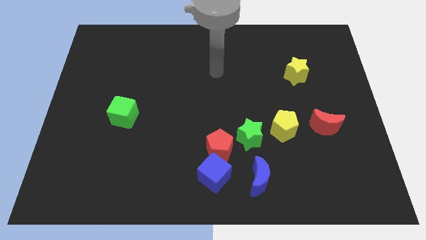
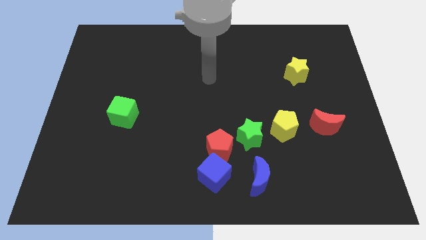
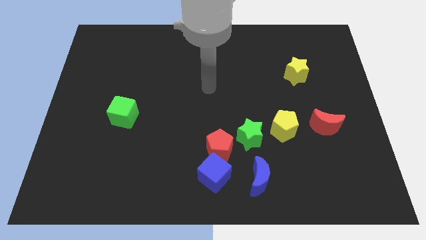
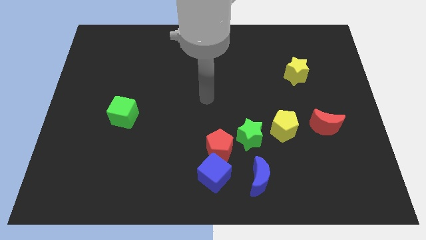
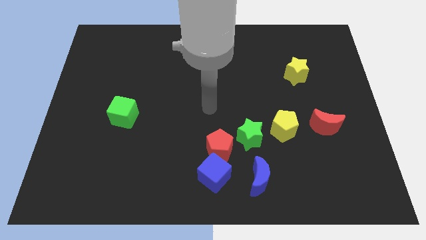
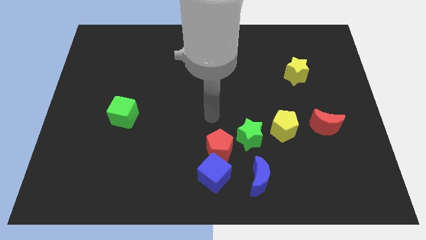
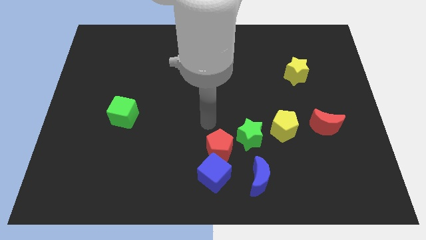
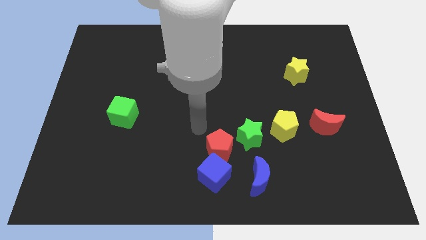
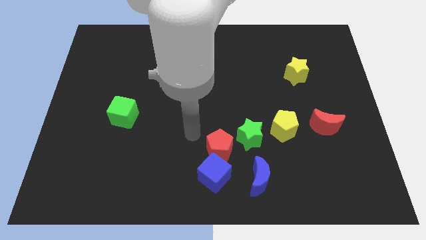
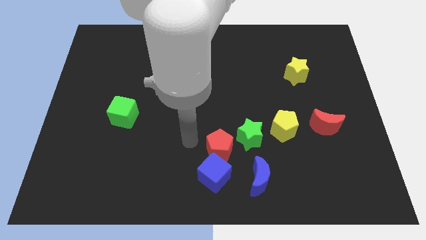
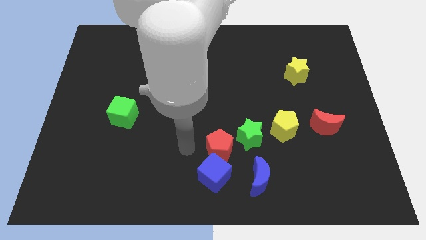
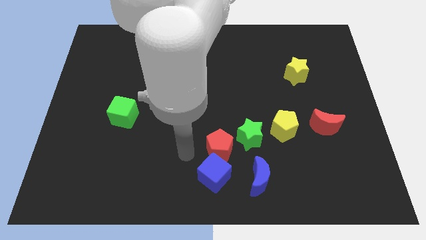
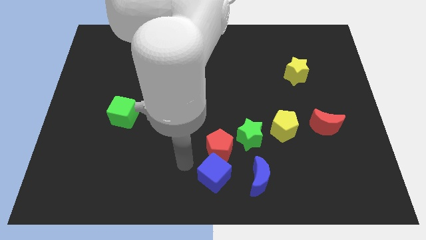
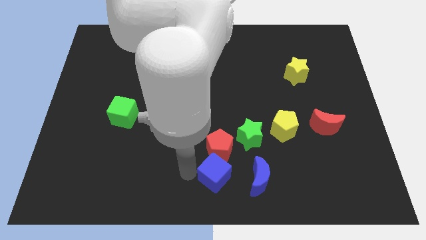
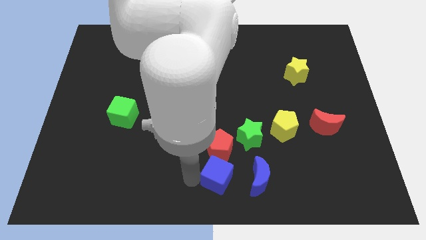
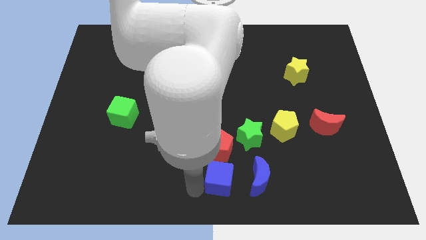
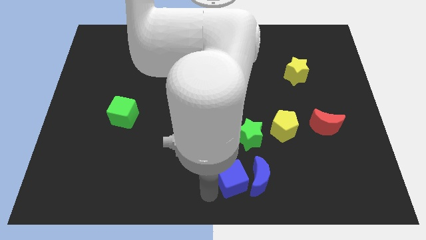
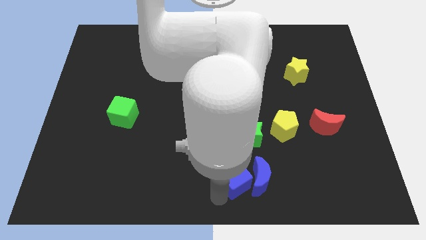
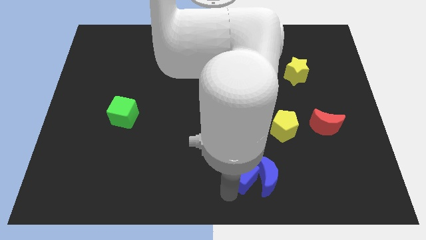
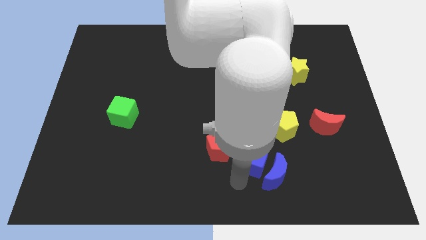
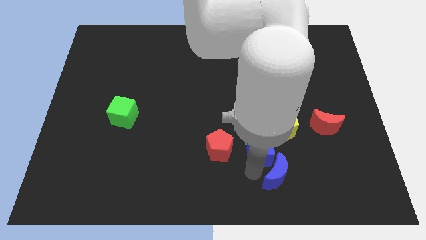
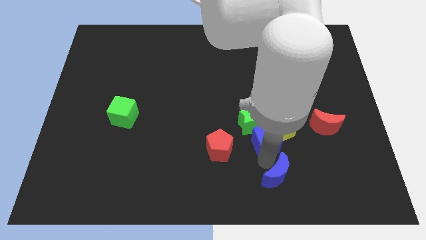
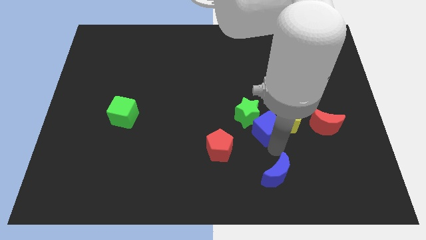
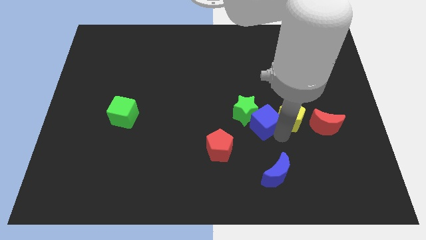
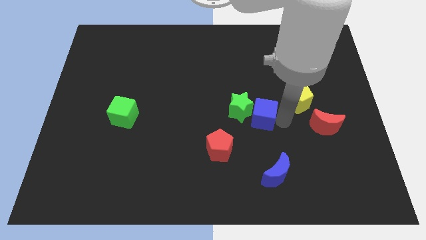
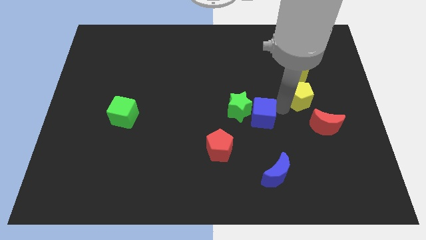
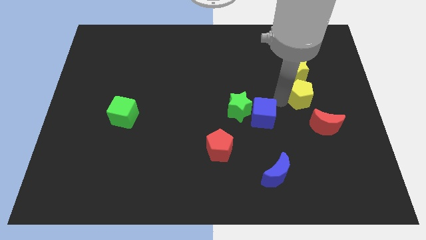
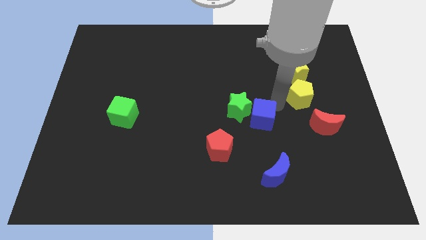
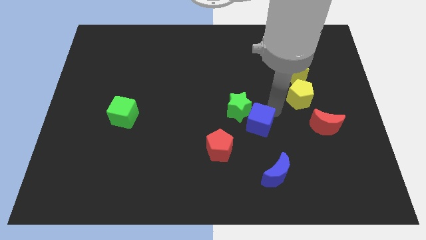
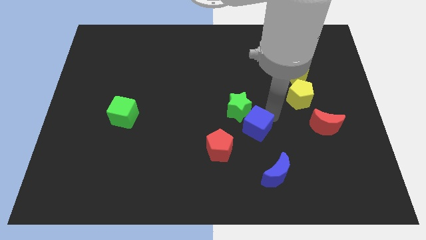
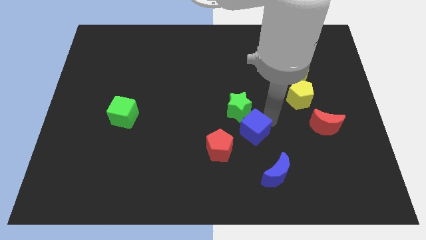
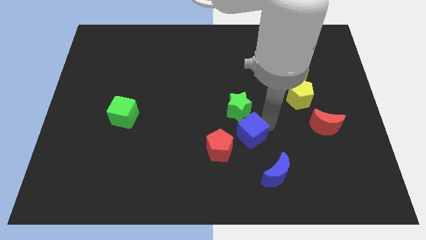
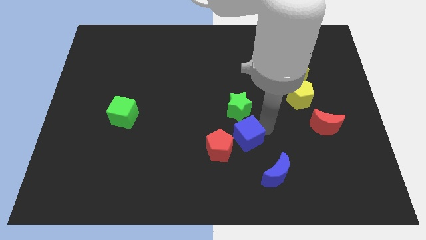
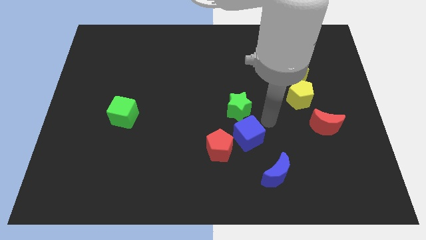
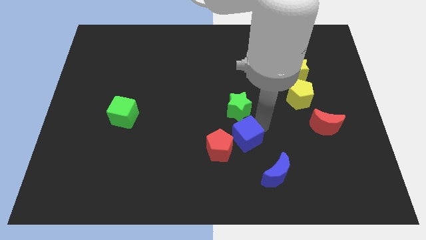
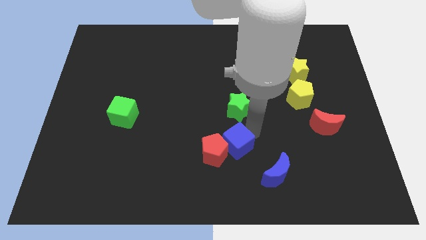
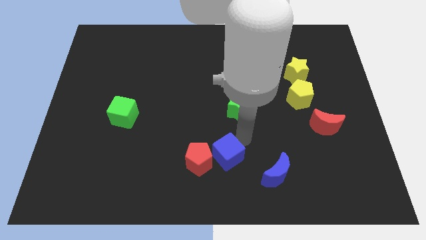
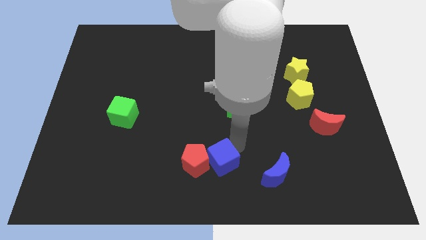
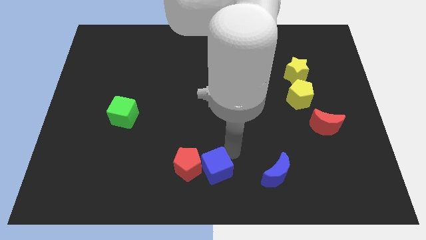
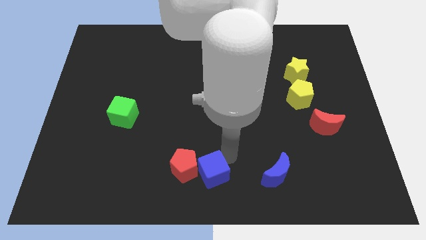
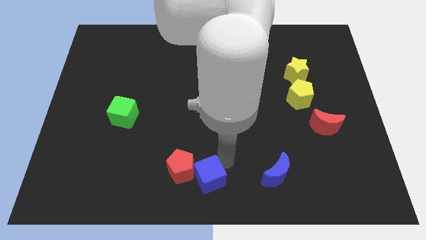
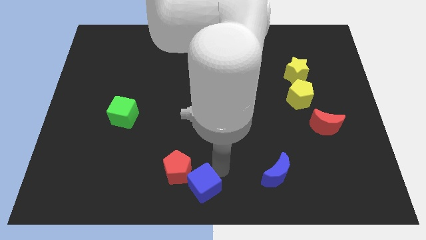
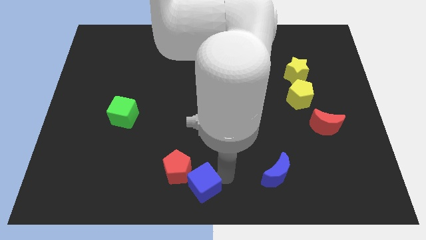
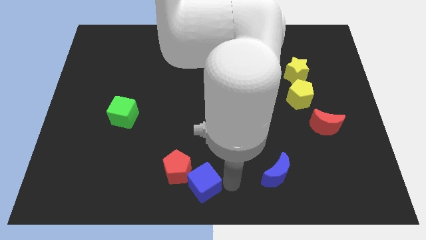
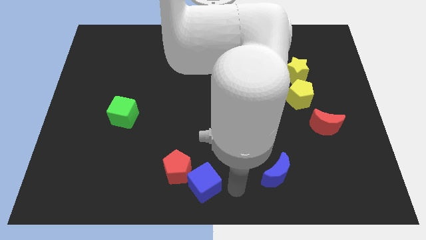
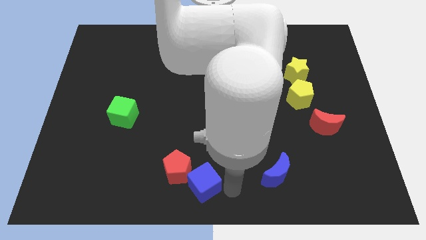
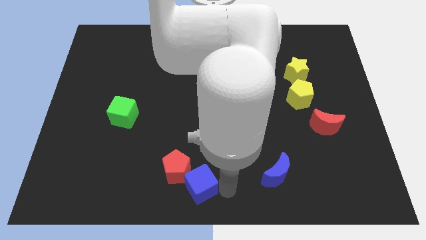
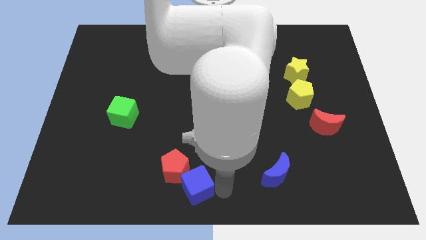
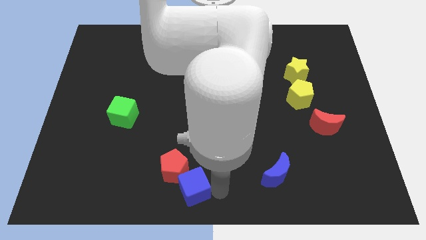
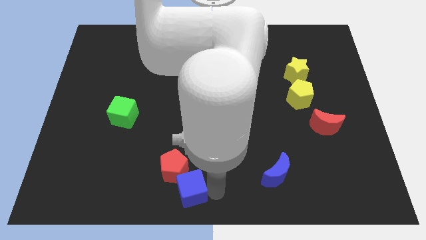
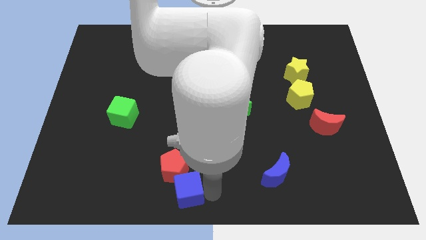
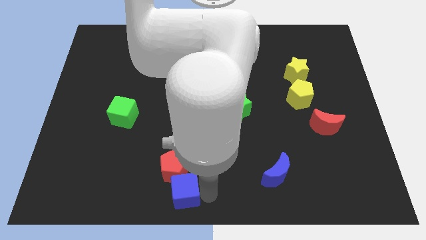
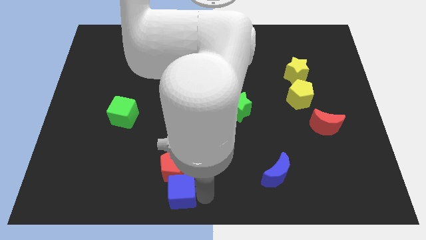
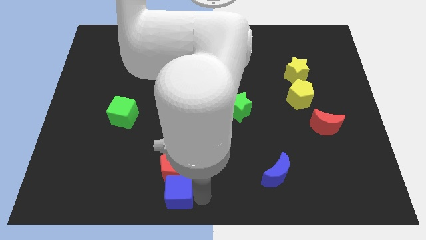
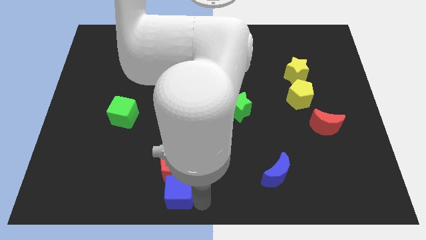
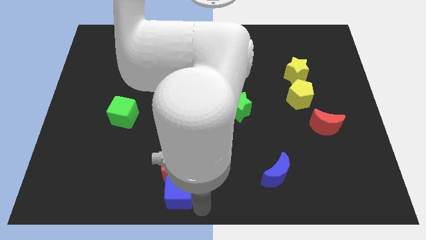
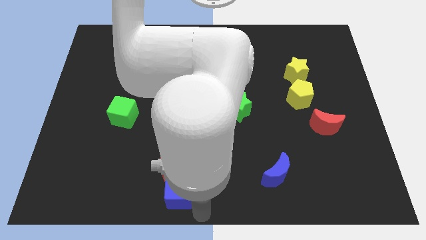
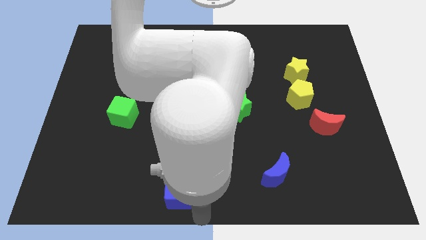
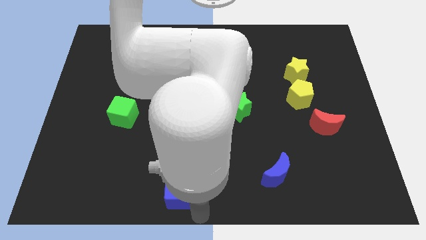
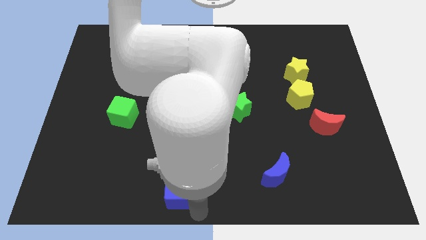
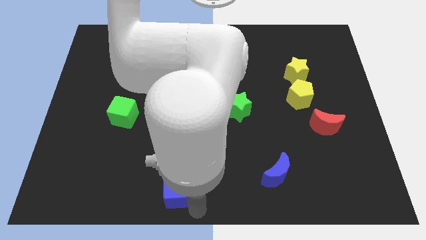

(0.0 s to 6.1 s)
slide the blue cube a little left

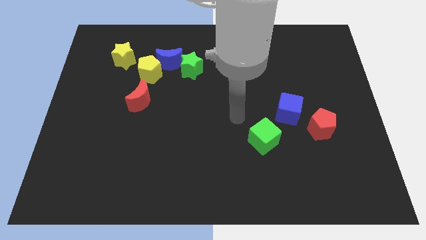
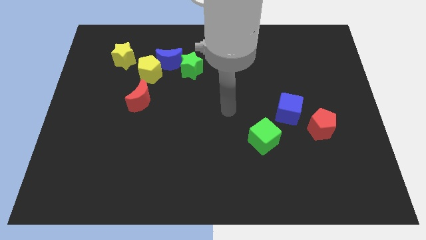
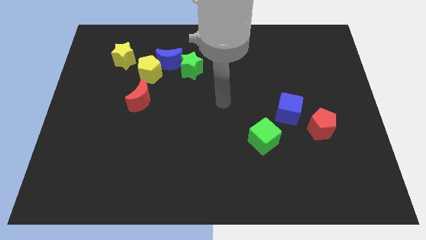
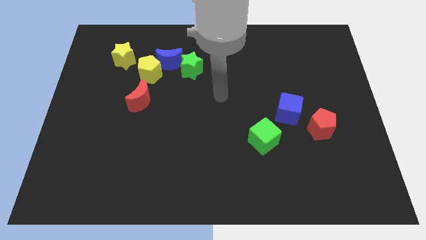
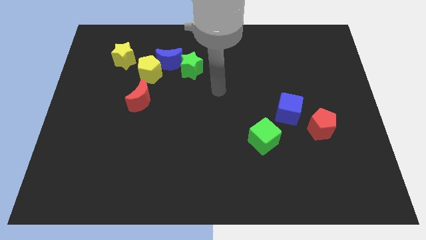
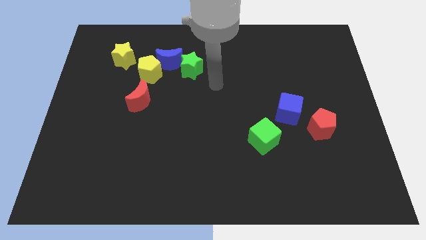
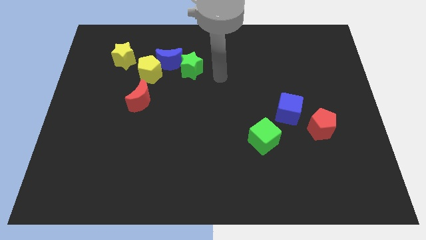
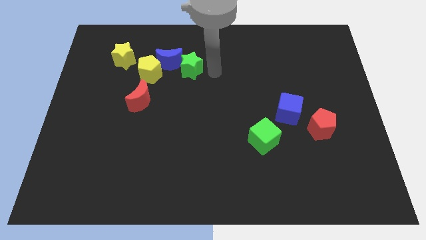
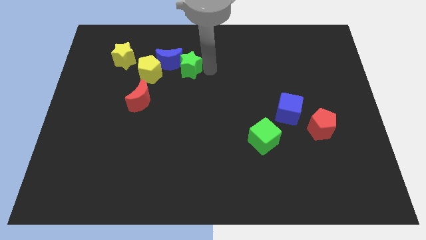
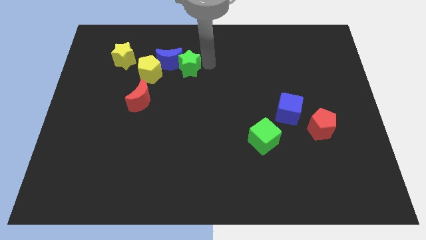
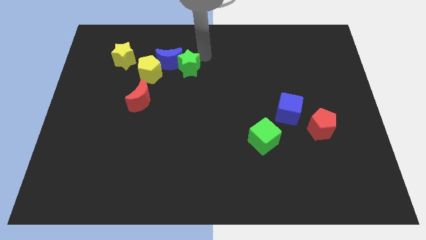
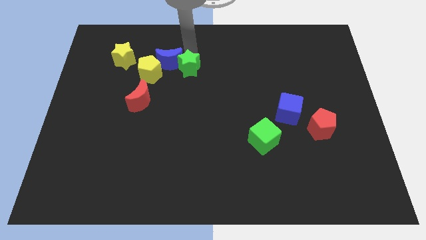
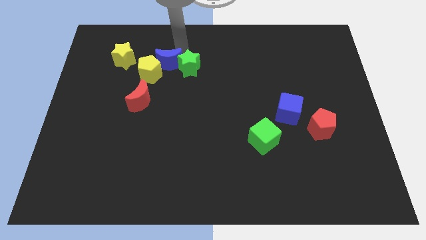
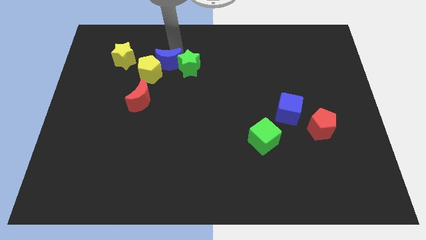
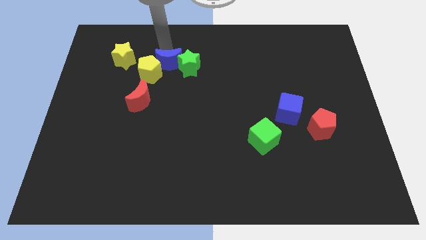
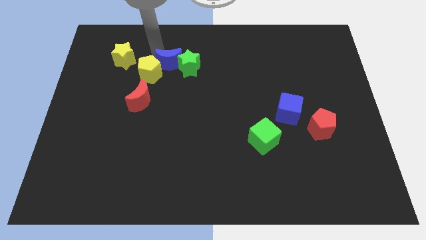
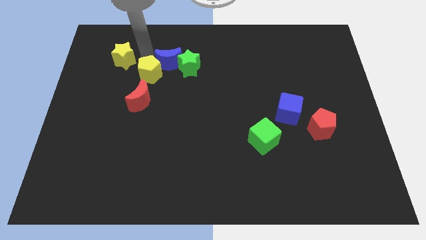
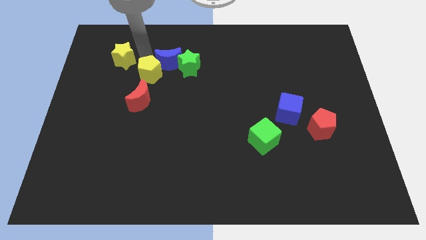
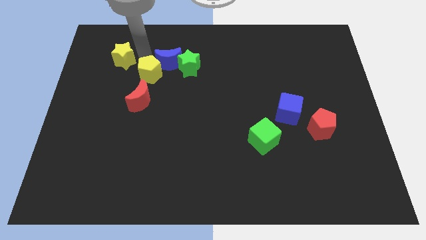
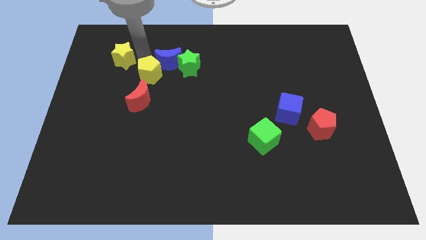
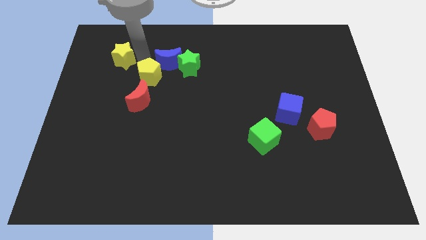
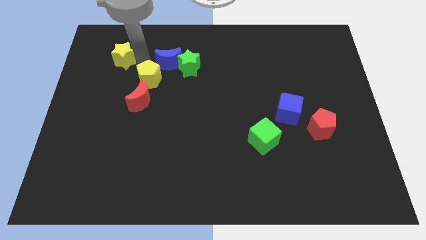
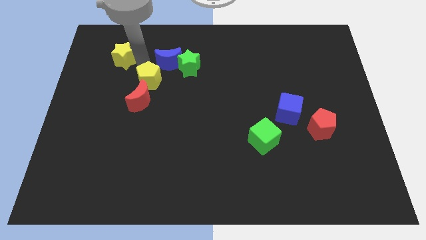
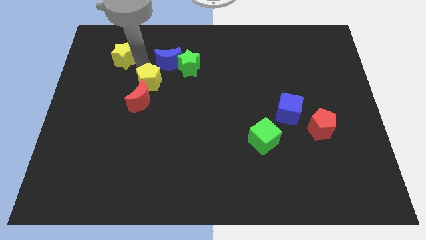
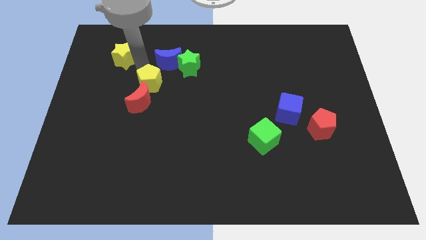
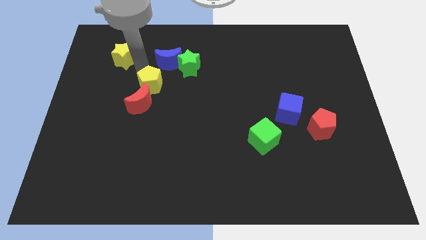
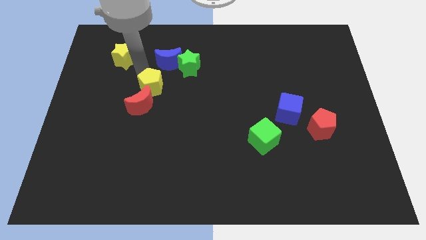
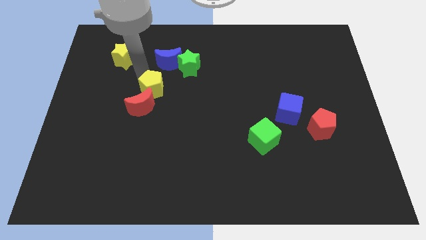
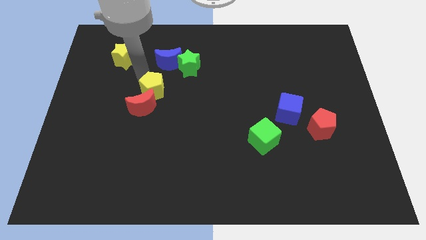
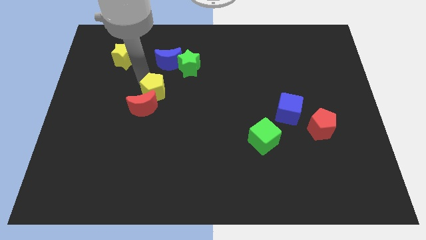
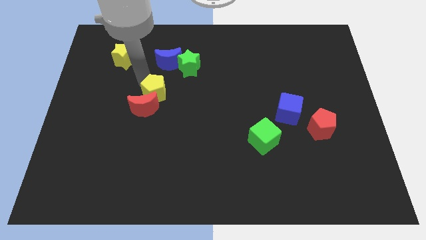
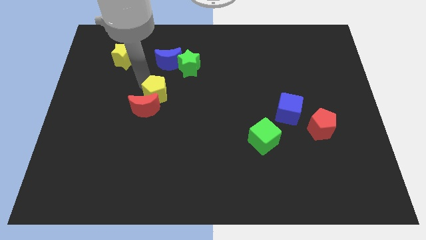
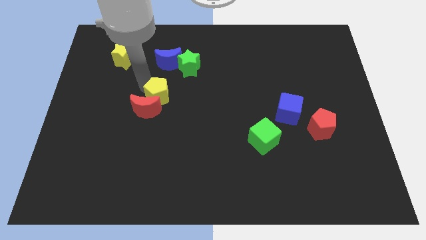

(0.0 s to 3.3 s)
push the yellow pentagon a little down
